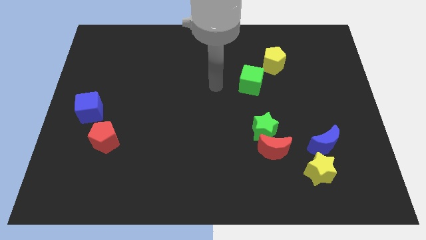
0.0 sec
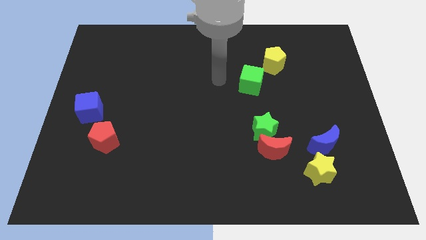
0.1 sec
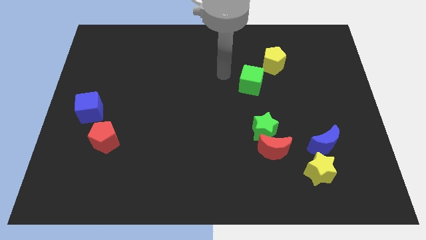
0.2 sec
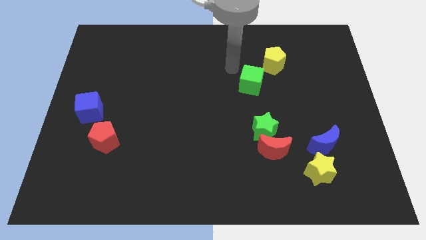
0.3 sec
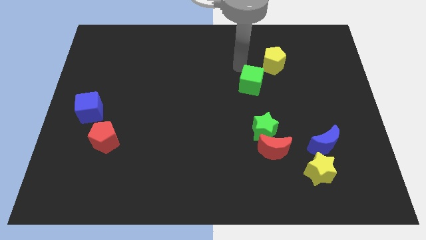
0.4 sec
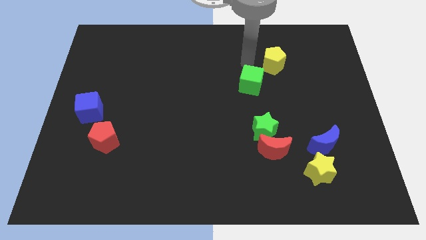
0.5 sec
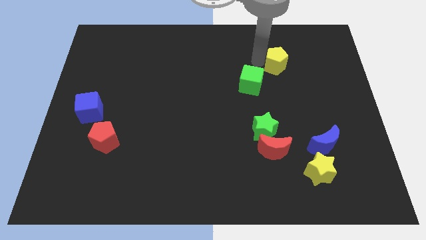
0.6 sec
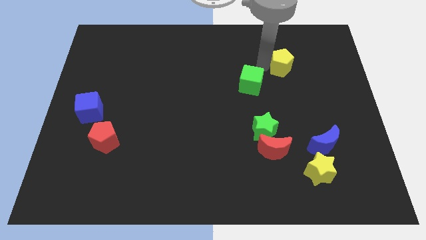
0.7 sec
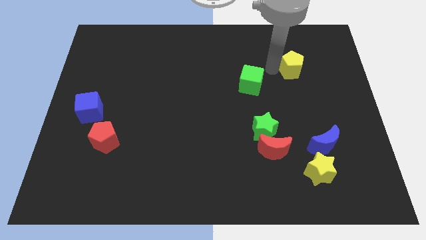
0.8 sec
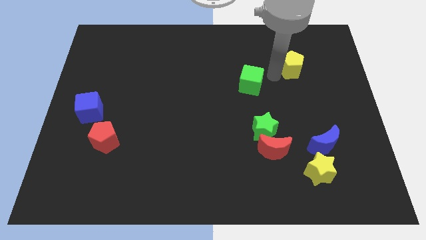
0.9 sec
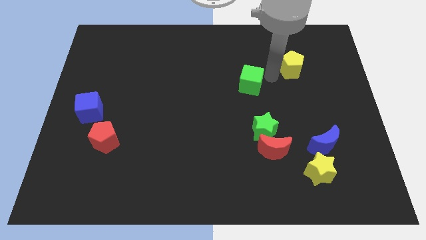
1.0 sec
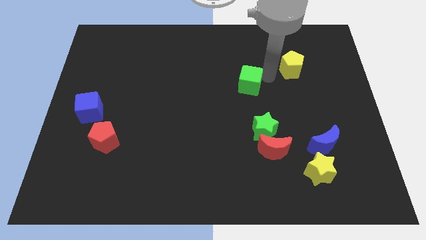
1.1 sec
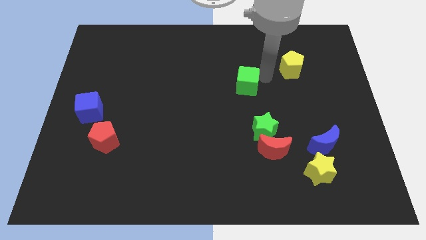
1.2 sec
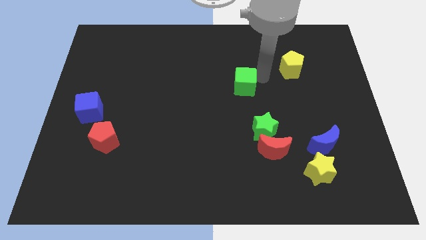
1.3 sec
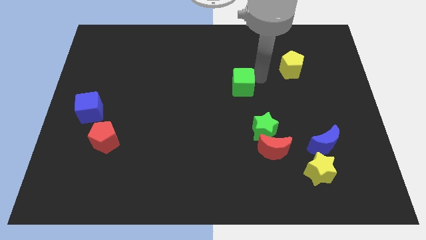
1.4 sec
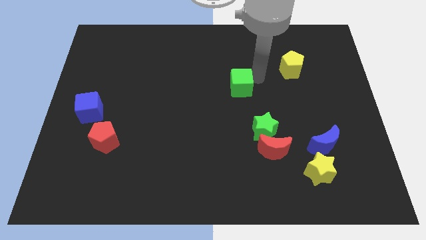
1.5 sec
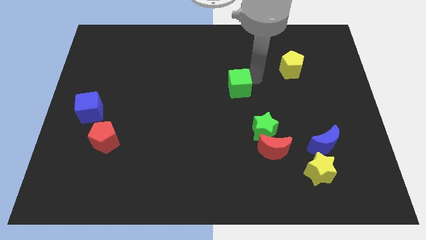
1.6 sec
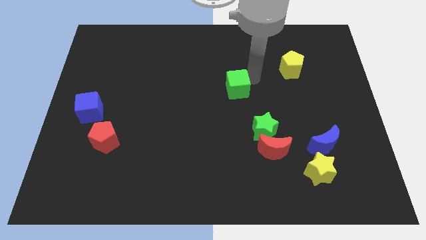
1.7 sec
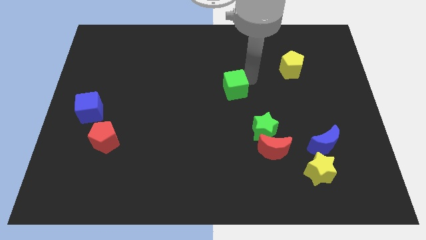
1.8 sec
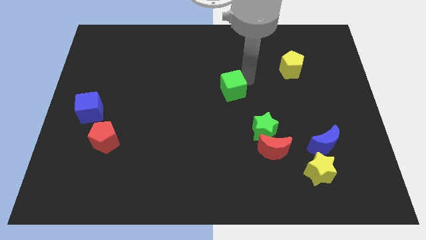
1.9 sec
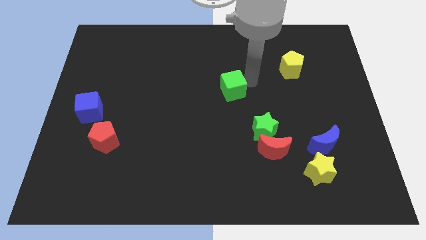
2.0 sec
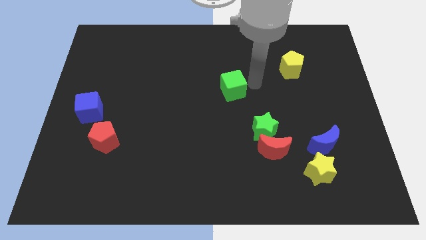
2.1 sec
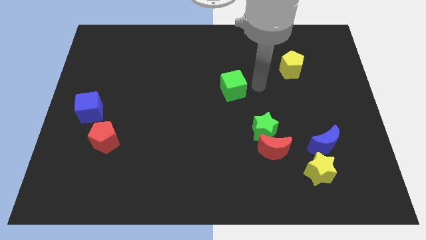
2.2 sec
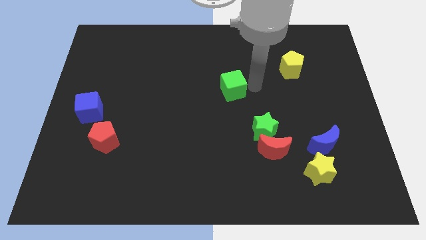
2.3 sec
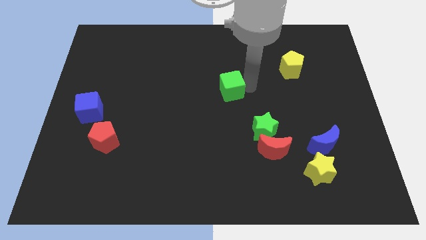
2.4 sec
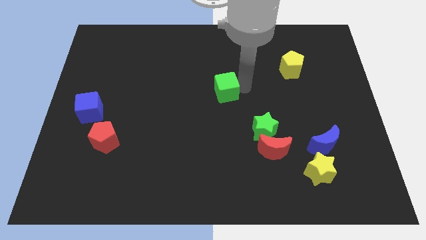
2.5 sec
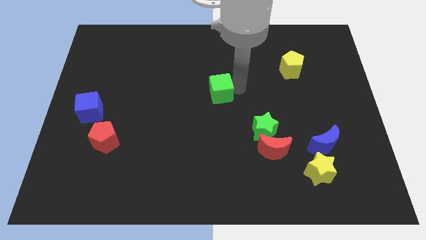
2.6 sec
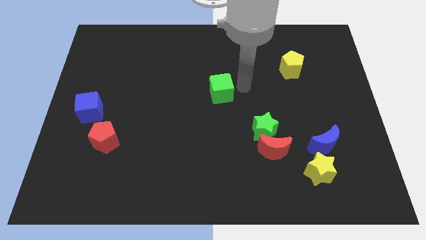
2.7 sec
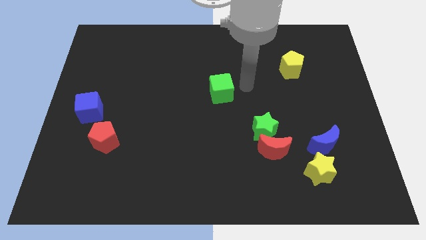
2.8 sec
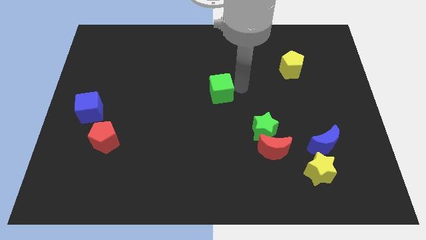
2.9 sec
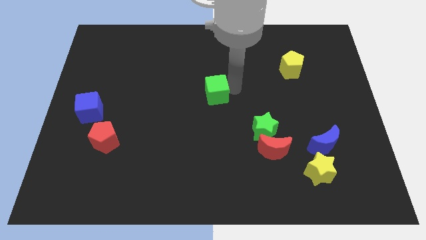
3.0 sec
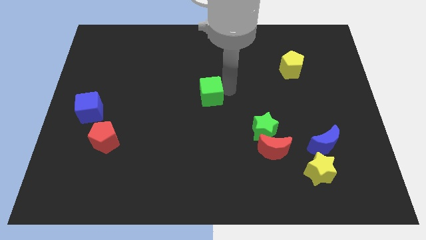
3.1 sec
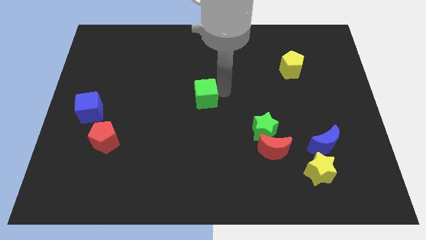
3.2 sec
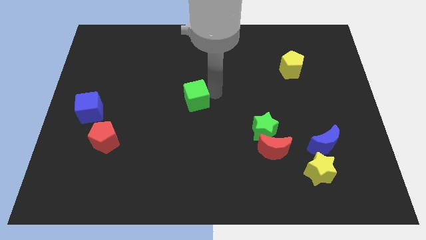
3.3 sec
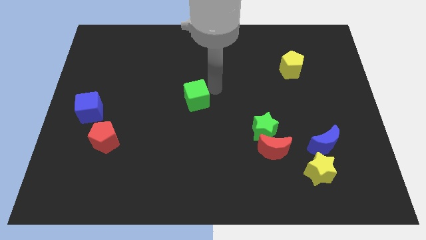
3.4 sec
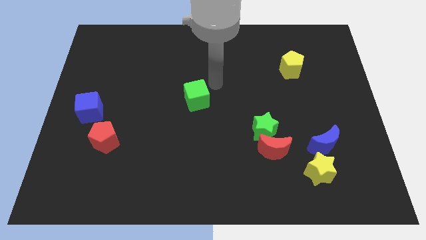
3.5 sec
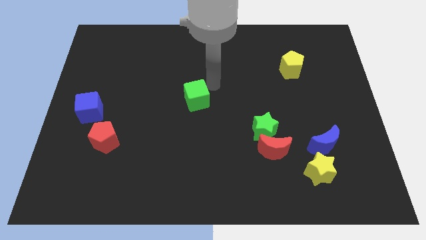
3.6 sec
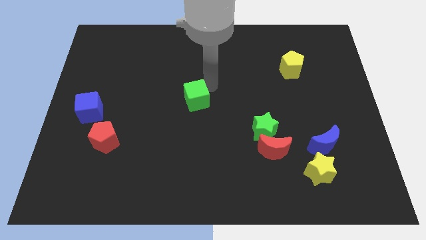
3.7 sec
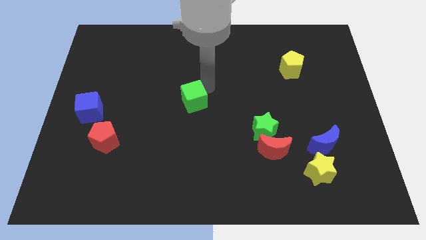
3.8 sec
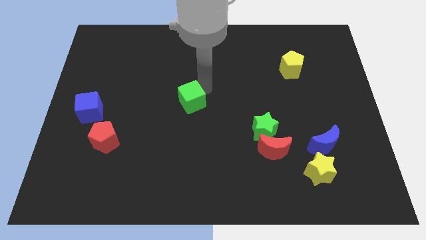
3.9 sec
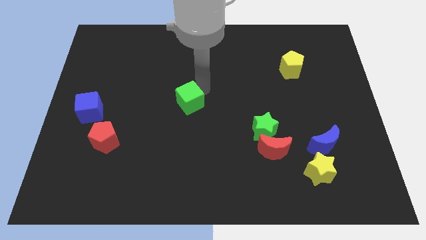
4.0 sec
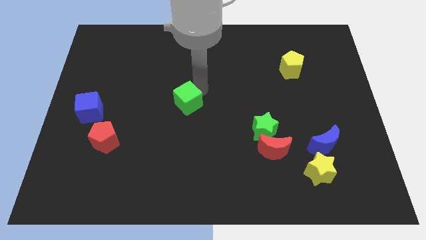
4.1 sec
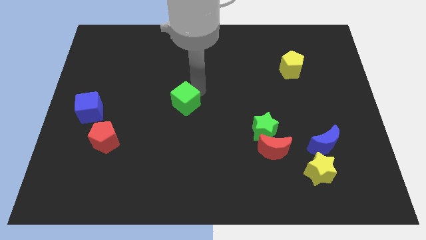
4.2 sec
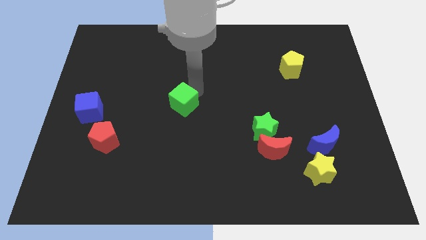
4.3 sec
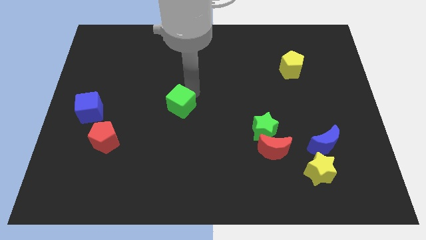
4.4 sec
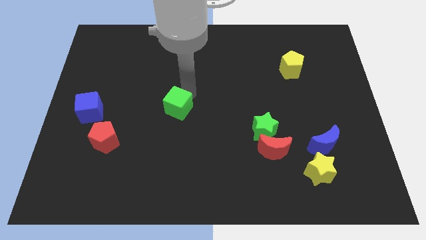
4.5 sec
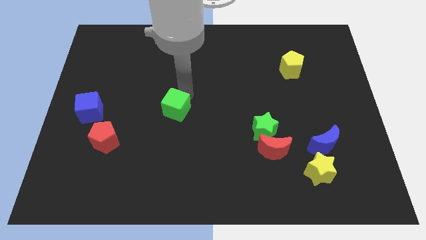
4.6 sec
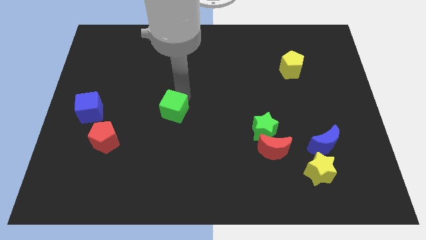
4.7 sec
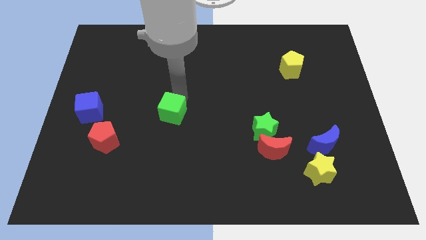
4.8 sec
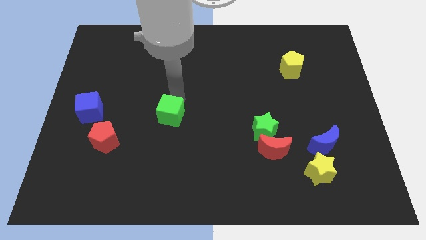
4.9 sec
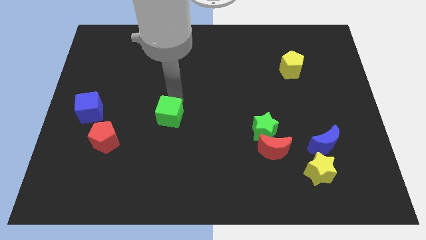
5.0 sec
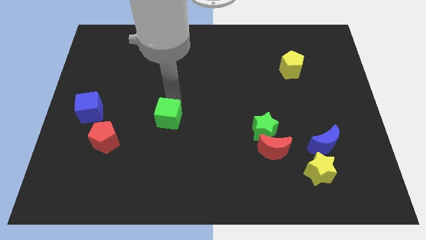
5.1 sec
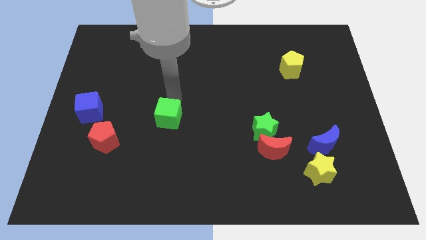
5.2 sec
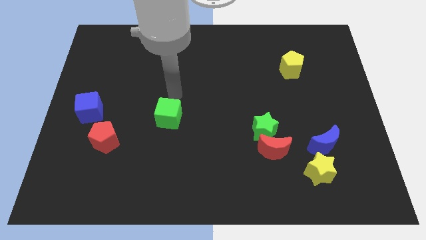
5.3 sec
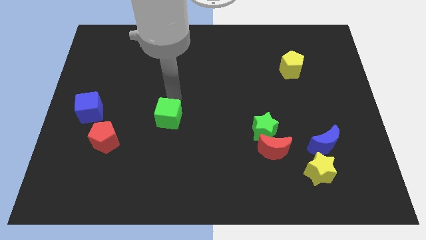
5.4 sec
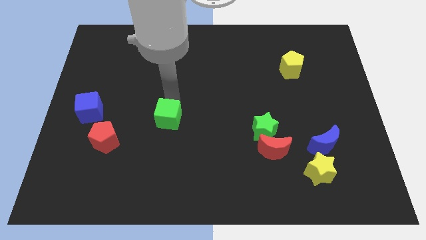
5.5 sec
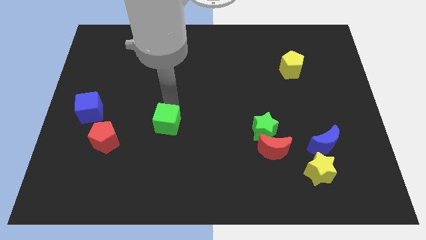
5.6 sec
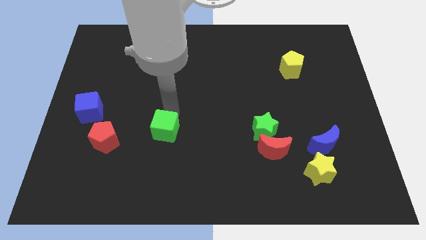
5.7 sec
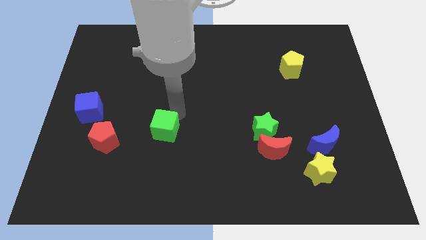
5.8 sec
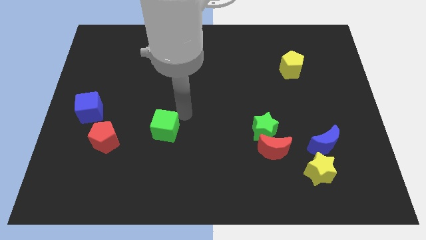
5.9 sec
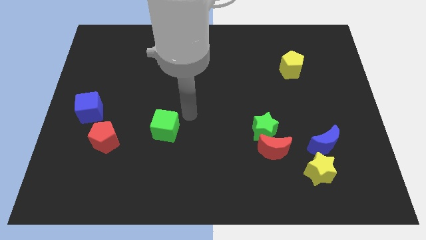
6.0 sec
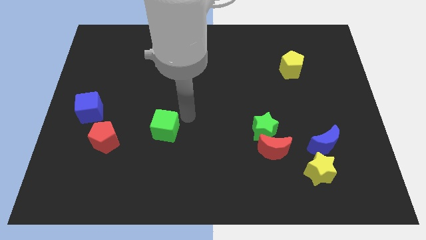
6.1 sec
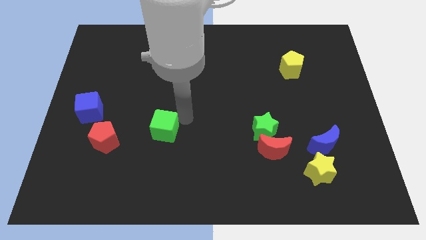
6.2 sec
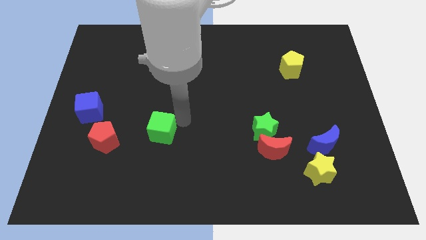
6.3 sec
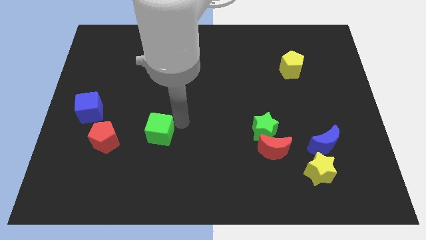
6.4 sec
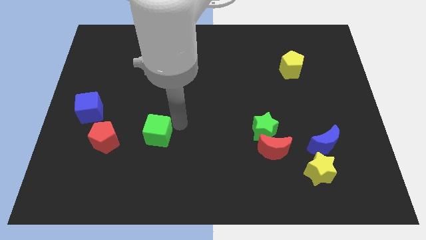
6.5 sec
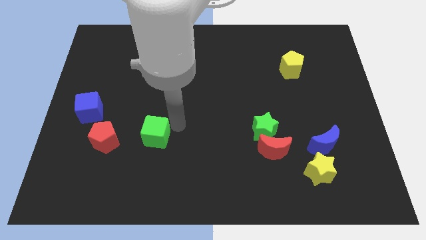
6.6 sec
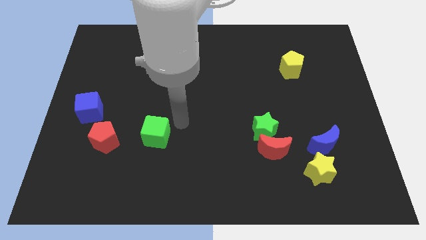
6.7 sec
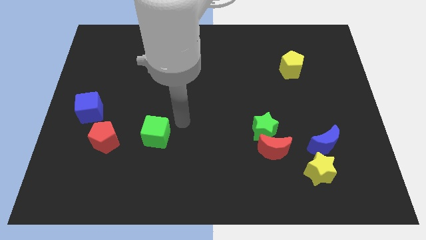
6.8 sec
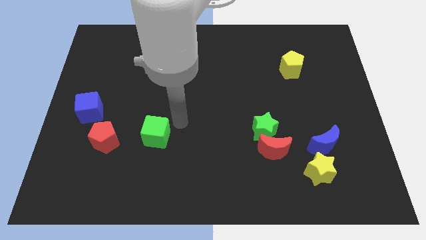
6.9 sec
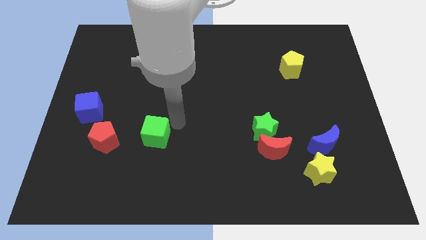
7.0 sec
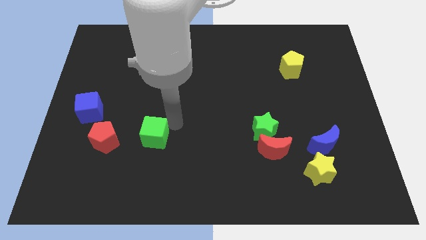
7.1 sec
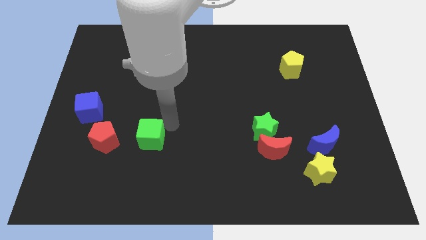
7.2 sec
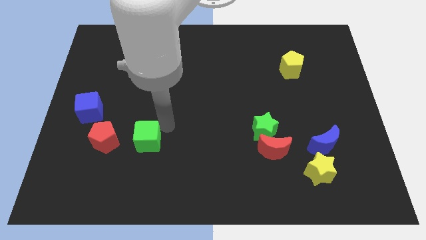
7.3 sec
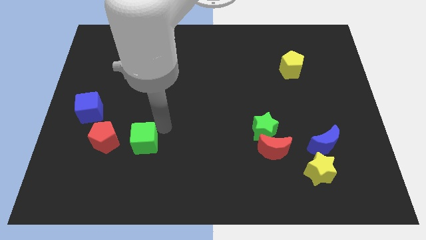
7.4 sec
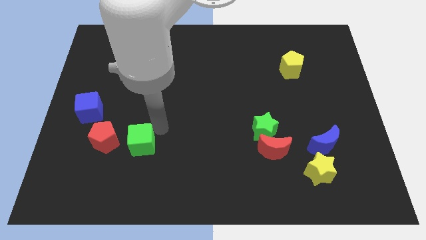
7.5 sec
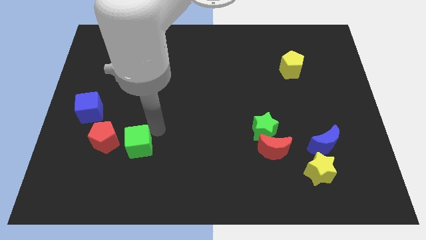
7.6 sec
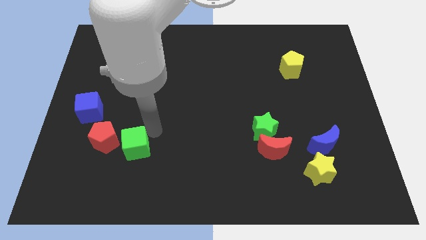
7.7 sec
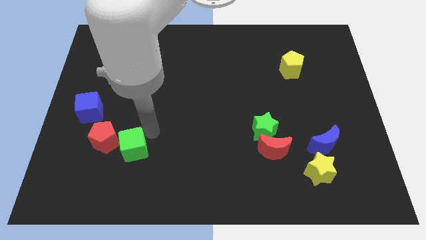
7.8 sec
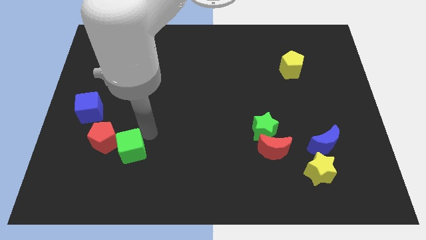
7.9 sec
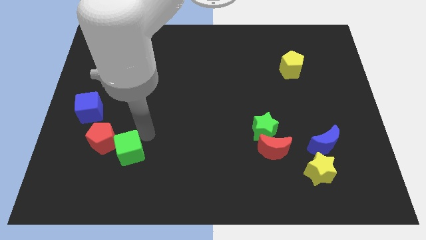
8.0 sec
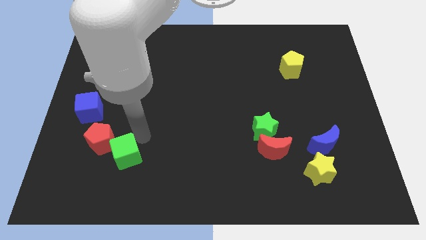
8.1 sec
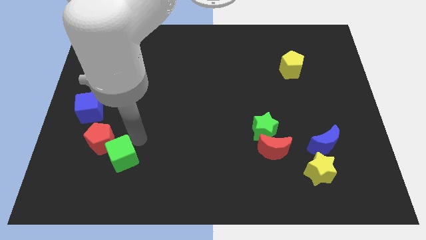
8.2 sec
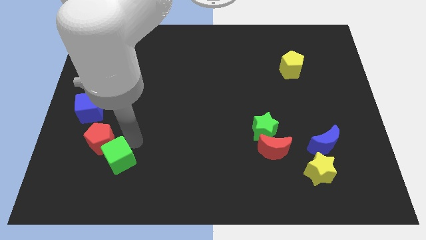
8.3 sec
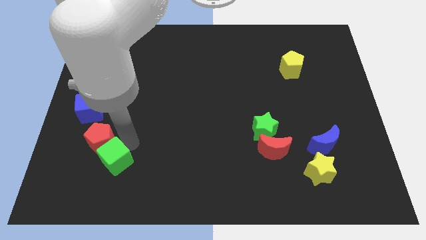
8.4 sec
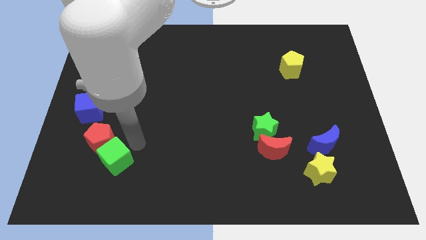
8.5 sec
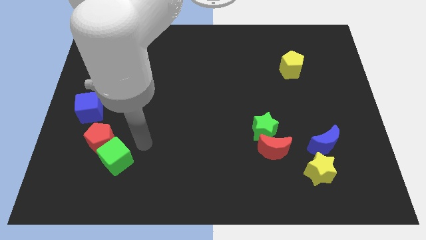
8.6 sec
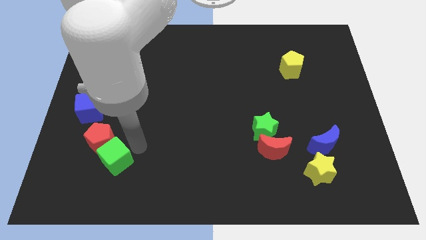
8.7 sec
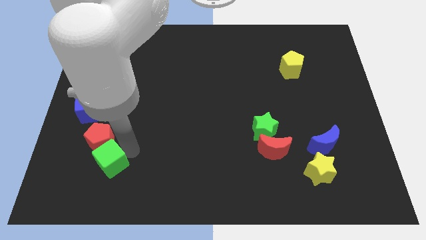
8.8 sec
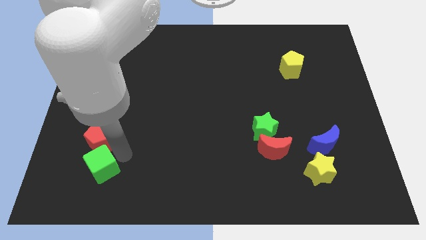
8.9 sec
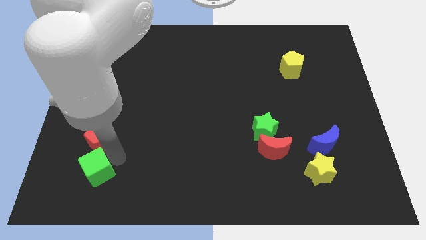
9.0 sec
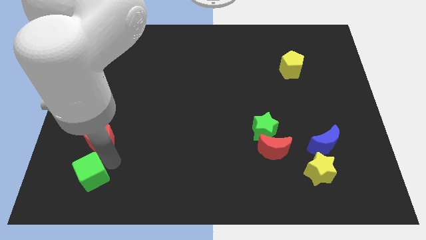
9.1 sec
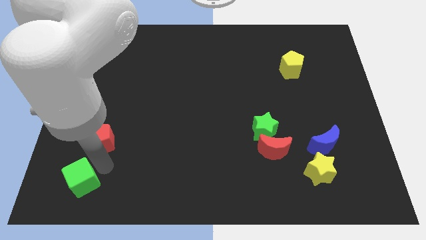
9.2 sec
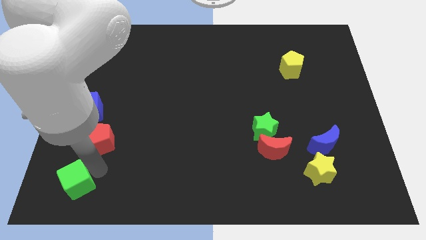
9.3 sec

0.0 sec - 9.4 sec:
move the green cube to the bottom left
